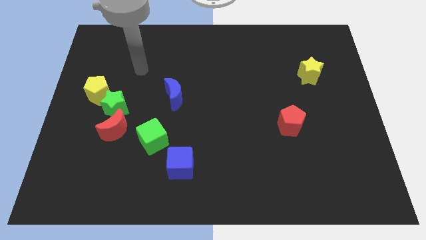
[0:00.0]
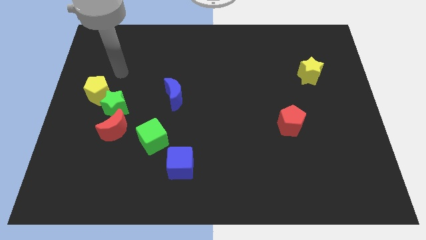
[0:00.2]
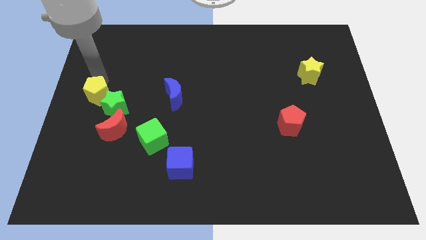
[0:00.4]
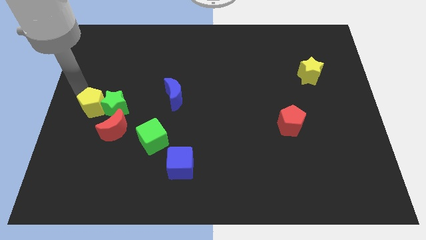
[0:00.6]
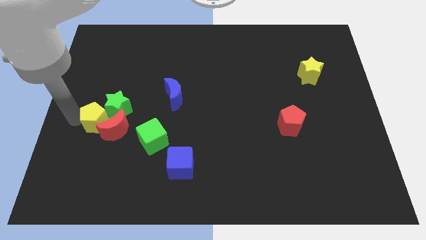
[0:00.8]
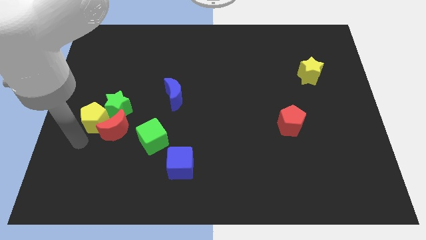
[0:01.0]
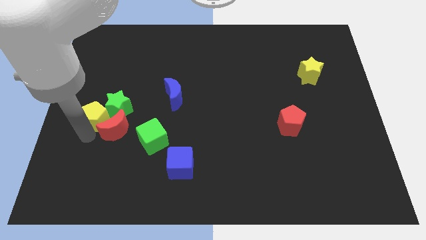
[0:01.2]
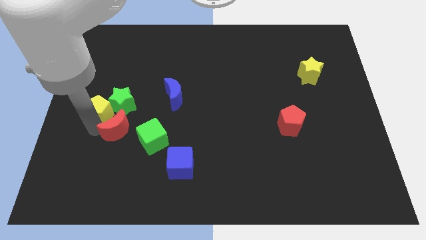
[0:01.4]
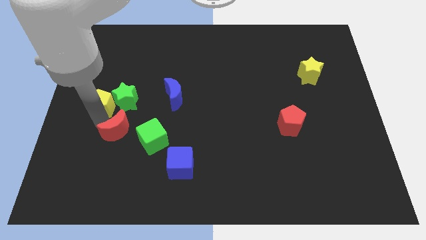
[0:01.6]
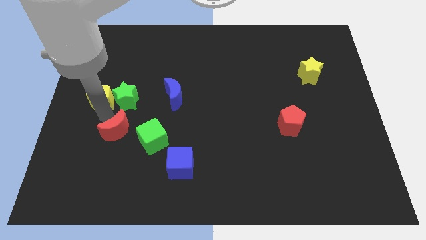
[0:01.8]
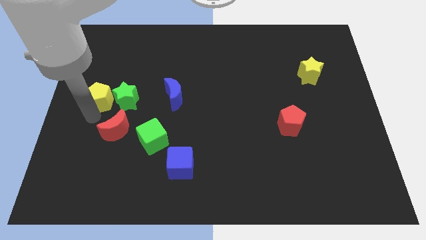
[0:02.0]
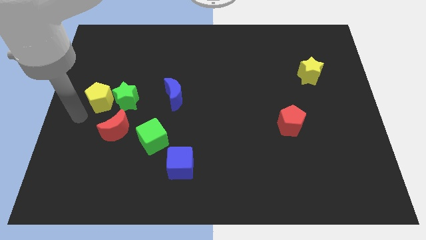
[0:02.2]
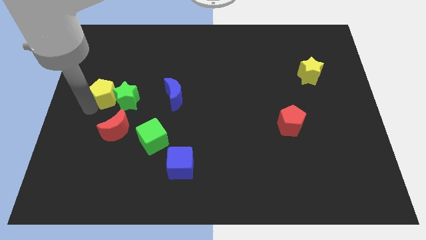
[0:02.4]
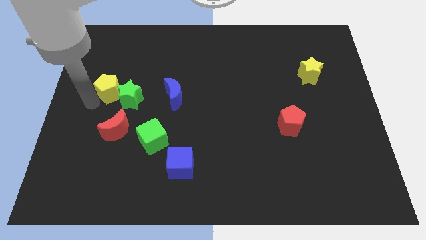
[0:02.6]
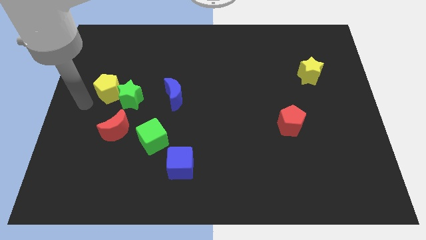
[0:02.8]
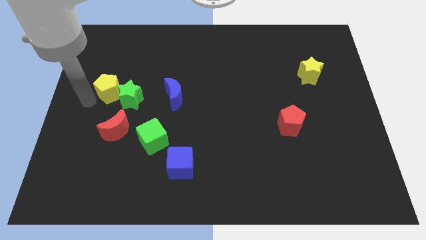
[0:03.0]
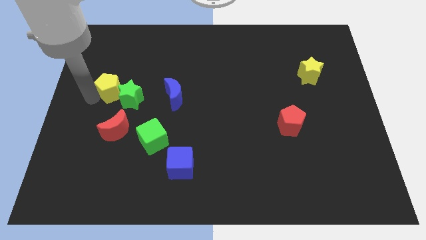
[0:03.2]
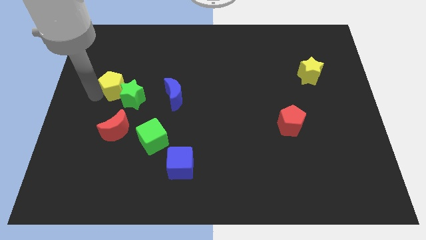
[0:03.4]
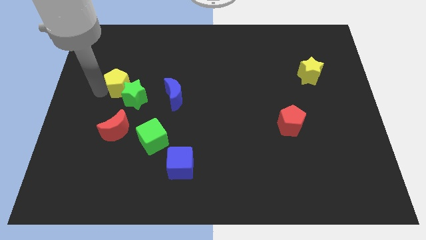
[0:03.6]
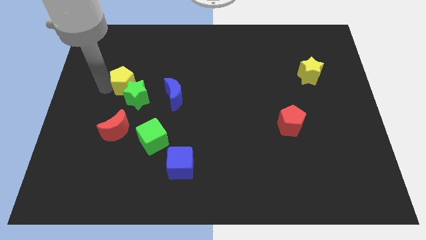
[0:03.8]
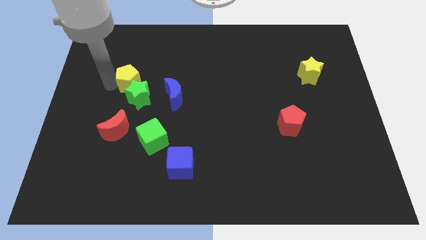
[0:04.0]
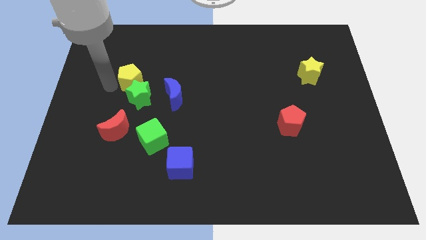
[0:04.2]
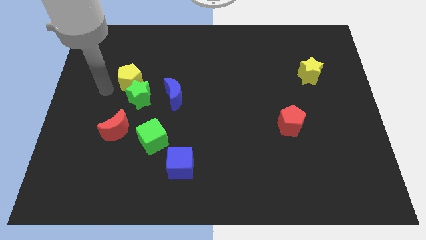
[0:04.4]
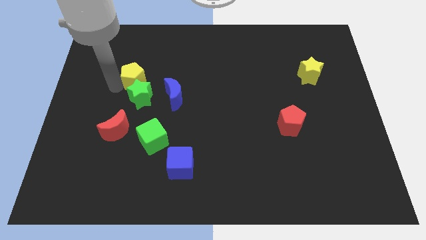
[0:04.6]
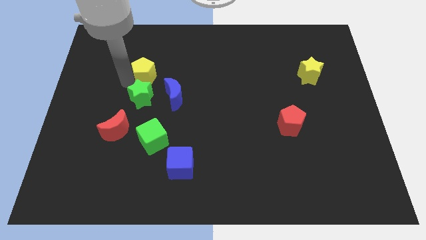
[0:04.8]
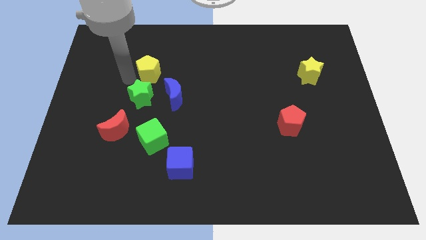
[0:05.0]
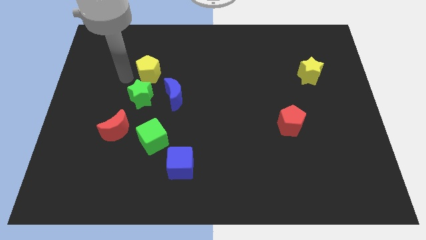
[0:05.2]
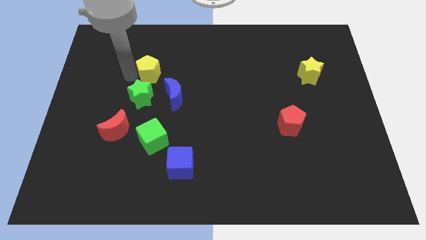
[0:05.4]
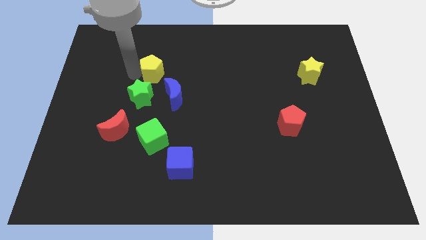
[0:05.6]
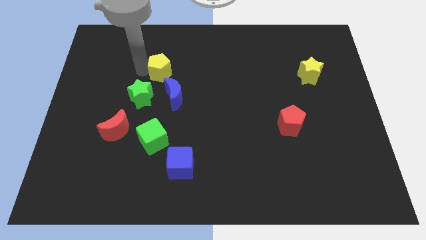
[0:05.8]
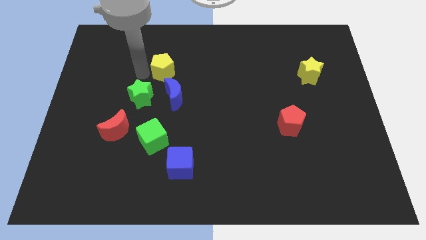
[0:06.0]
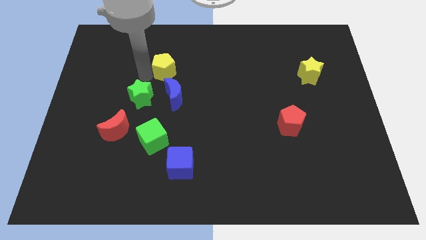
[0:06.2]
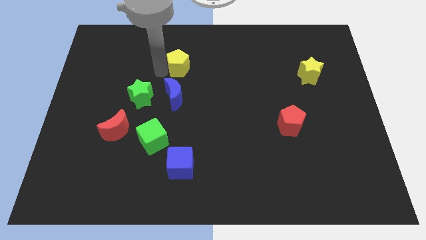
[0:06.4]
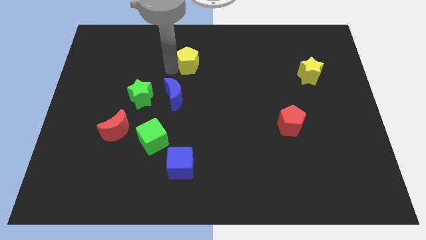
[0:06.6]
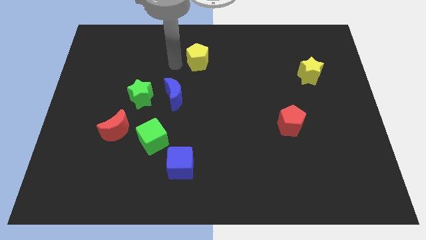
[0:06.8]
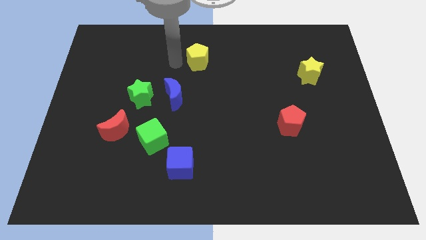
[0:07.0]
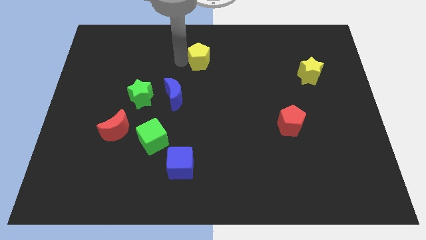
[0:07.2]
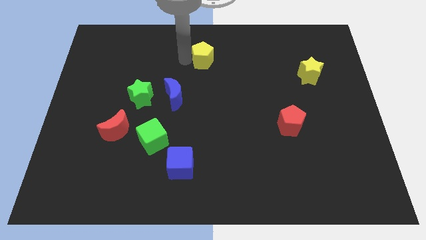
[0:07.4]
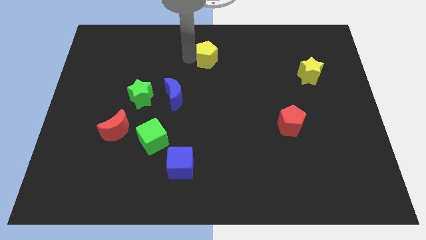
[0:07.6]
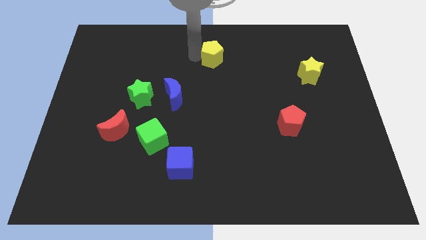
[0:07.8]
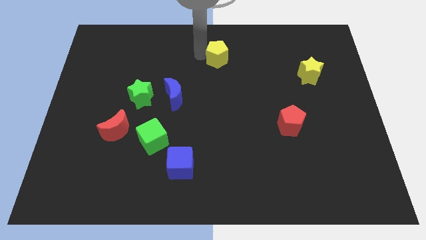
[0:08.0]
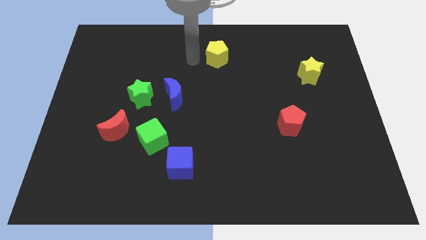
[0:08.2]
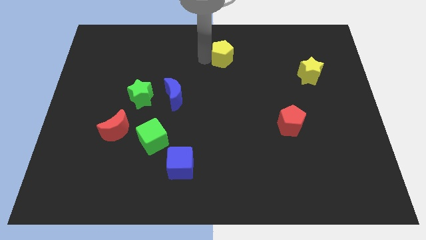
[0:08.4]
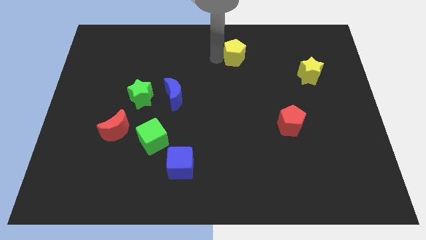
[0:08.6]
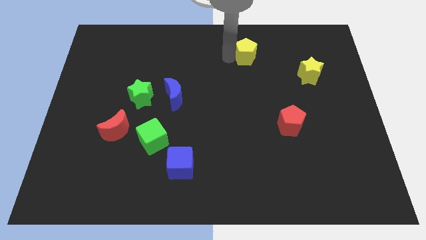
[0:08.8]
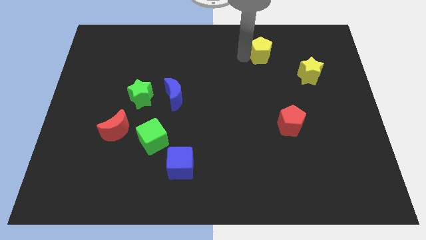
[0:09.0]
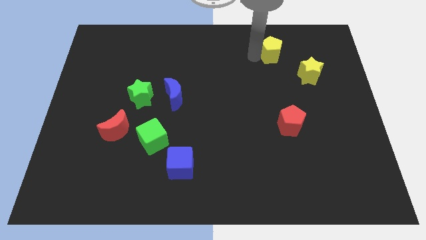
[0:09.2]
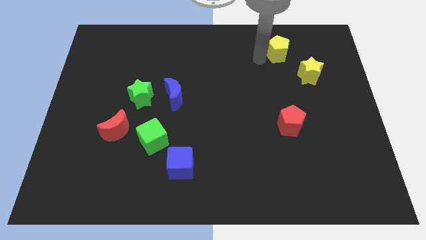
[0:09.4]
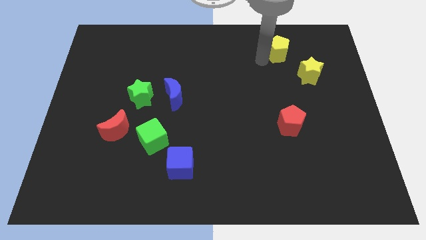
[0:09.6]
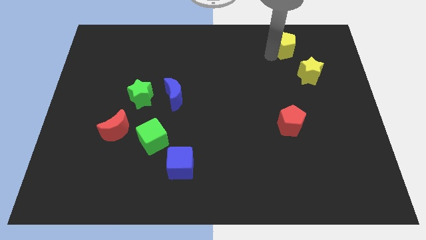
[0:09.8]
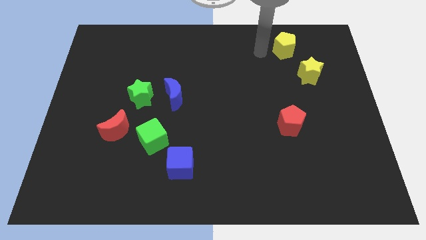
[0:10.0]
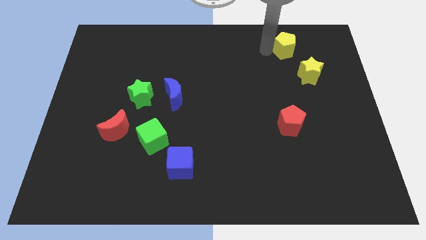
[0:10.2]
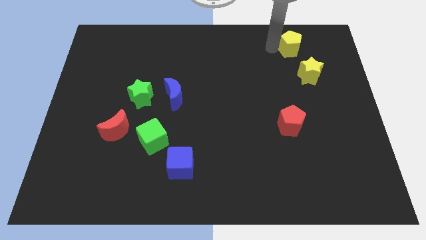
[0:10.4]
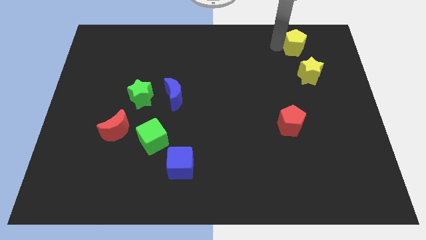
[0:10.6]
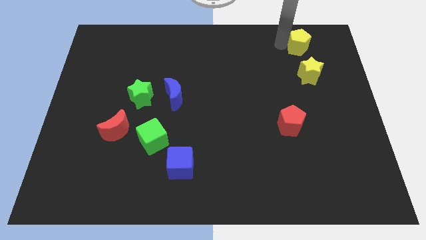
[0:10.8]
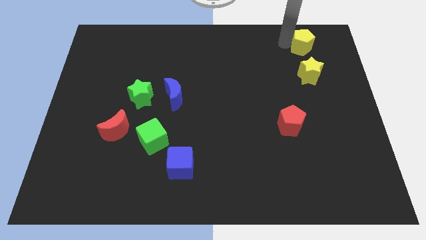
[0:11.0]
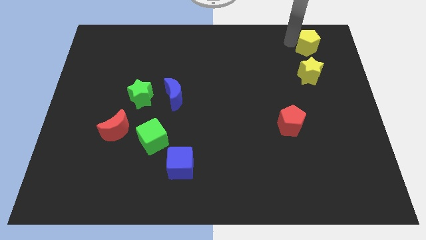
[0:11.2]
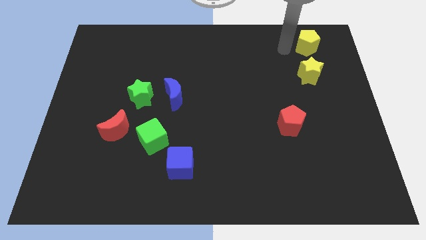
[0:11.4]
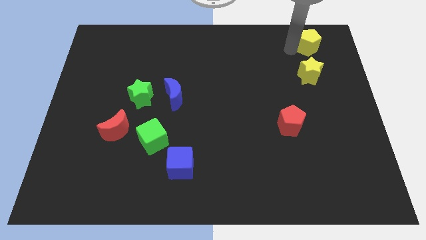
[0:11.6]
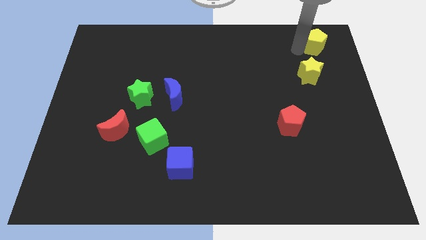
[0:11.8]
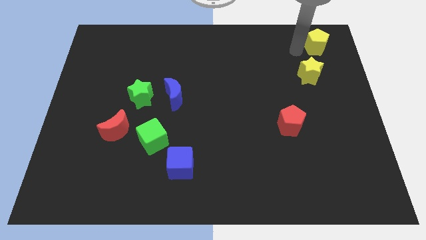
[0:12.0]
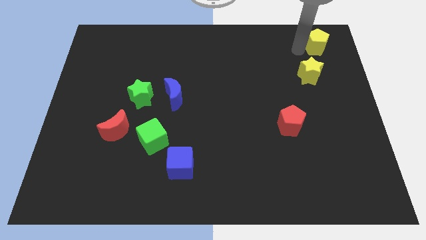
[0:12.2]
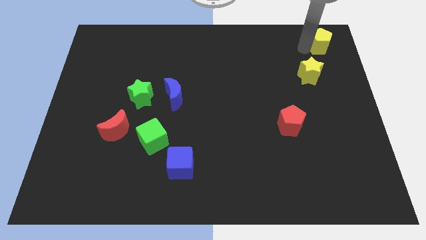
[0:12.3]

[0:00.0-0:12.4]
move the yellow pentagon to the top right corner

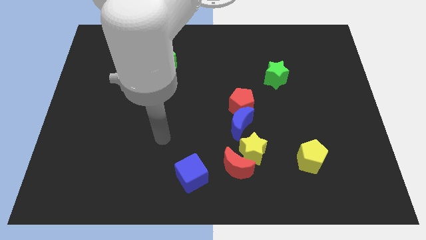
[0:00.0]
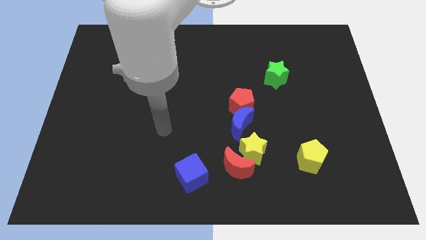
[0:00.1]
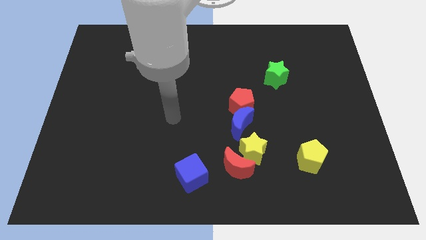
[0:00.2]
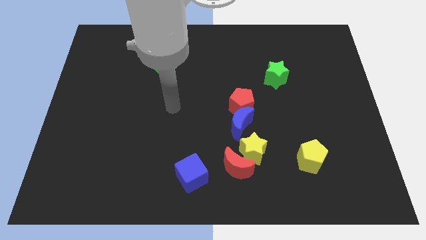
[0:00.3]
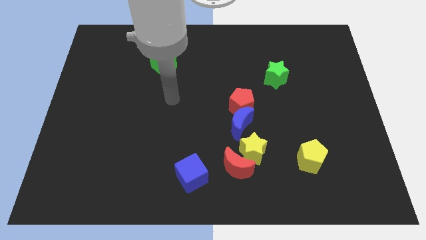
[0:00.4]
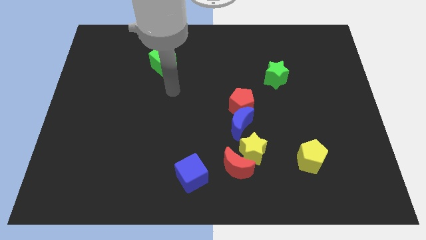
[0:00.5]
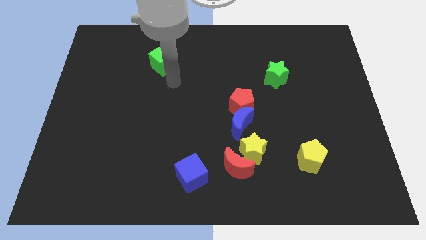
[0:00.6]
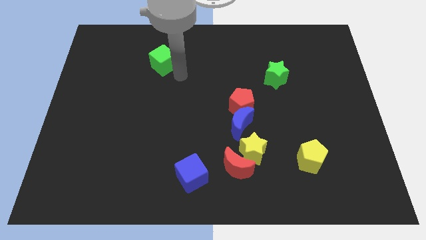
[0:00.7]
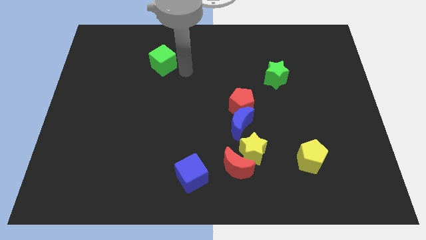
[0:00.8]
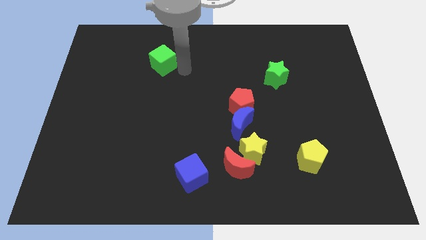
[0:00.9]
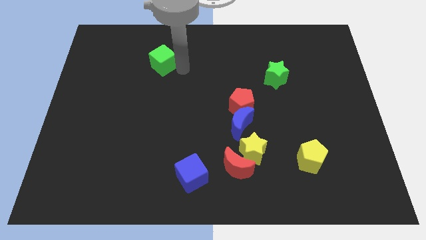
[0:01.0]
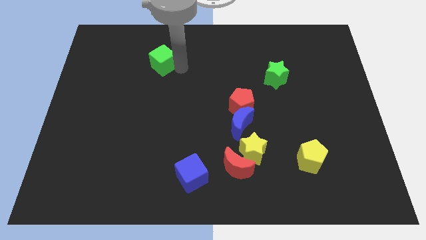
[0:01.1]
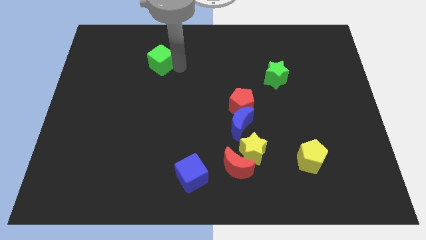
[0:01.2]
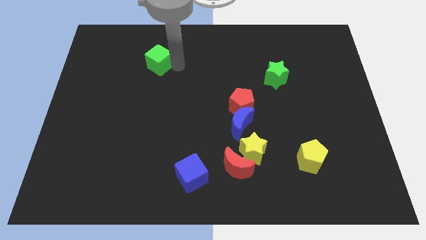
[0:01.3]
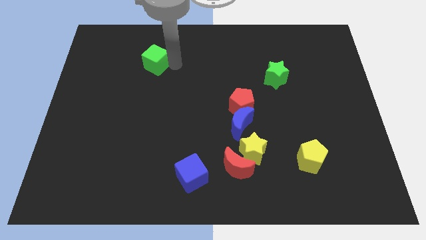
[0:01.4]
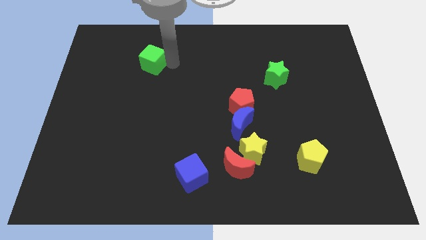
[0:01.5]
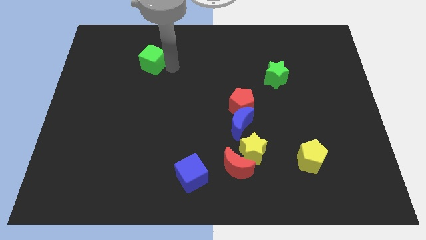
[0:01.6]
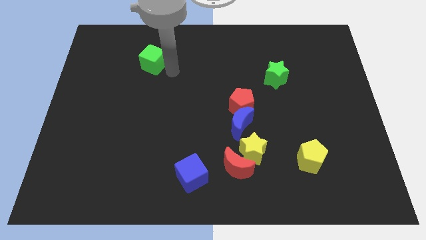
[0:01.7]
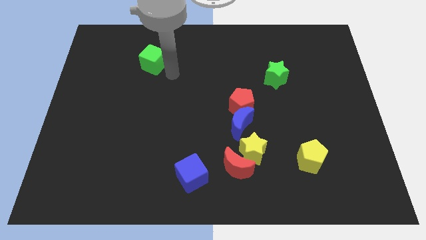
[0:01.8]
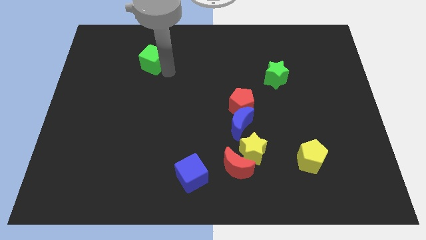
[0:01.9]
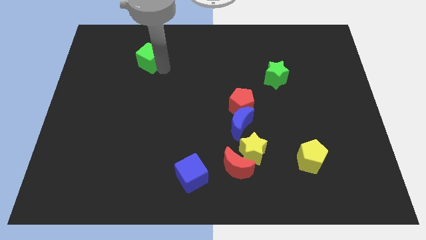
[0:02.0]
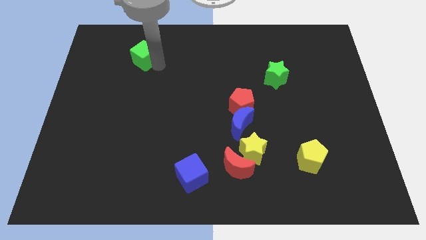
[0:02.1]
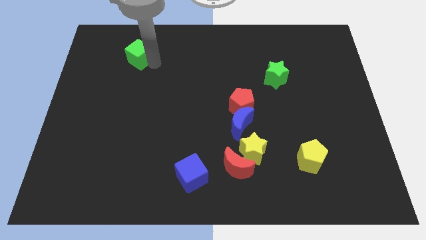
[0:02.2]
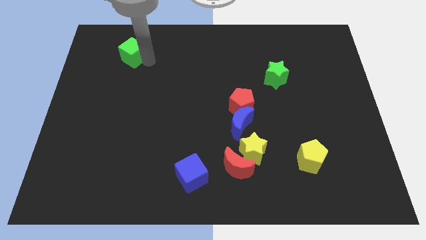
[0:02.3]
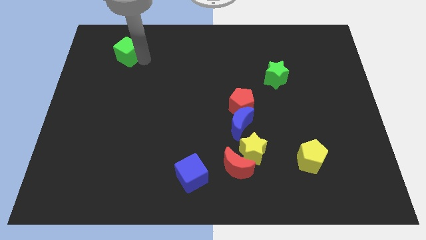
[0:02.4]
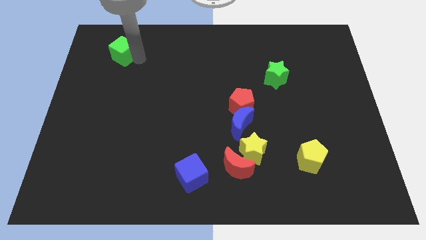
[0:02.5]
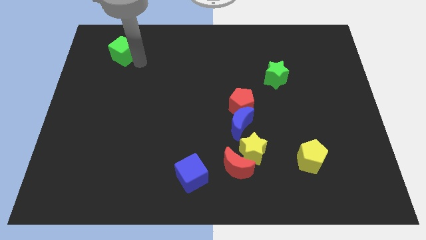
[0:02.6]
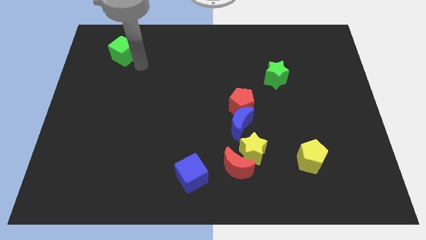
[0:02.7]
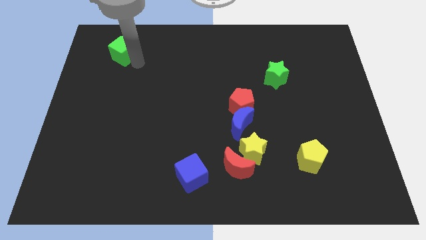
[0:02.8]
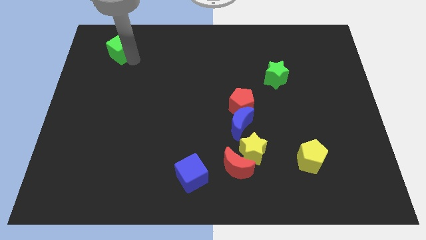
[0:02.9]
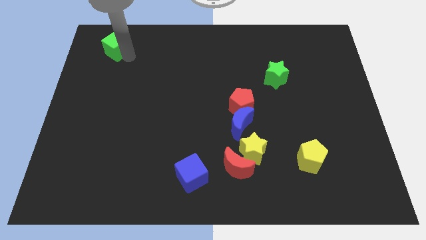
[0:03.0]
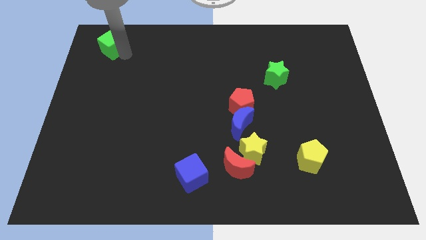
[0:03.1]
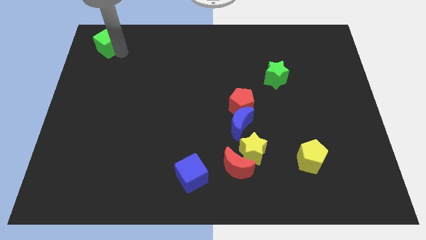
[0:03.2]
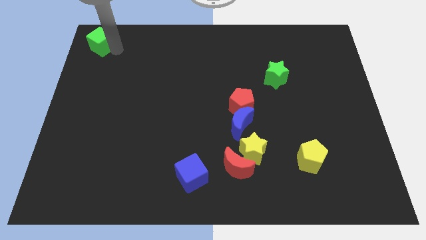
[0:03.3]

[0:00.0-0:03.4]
slide the green cube to the upper left corner
